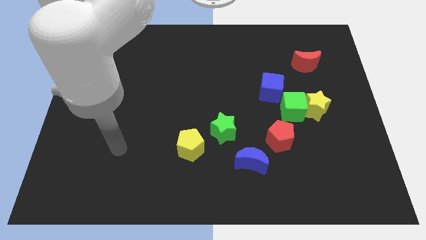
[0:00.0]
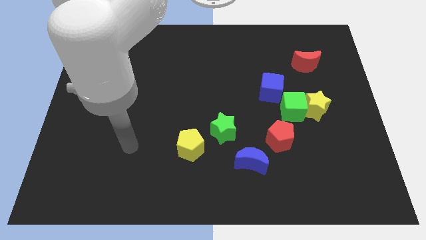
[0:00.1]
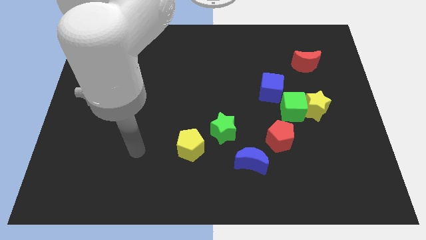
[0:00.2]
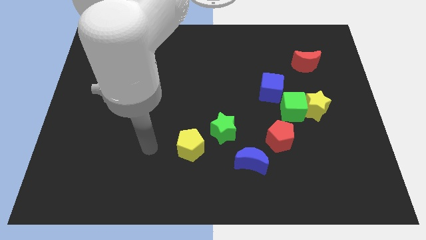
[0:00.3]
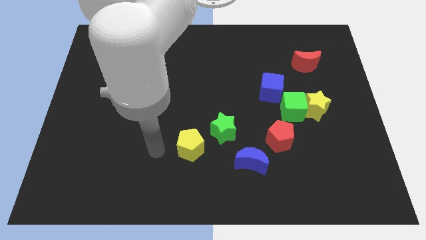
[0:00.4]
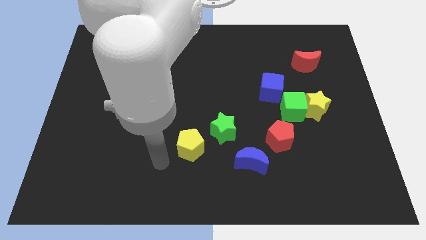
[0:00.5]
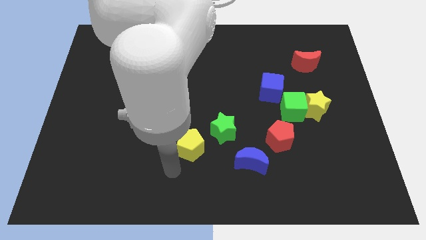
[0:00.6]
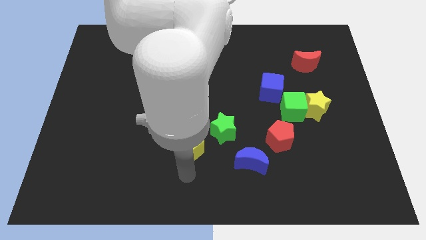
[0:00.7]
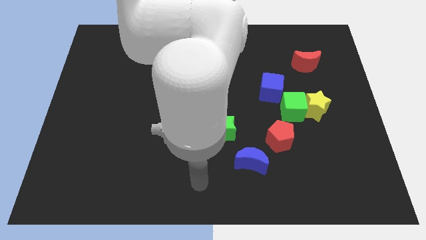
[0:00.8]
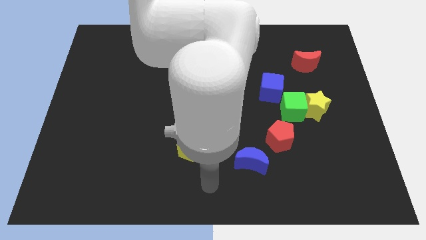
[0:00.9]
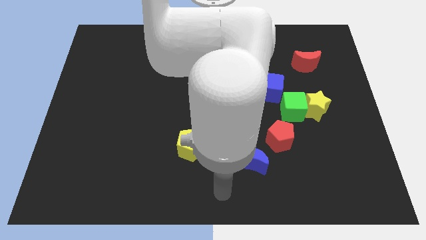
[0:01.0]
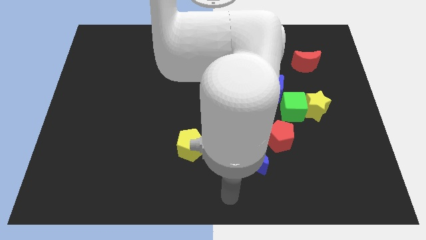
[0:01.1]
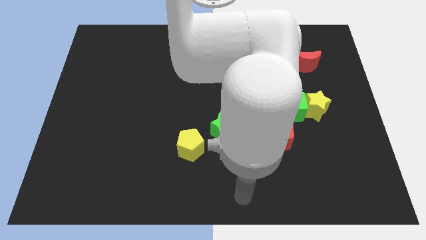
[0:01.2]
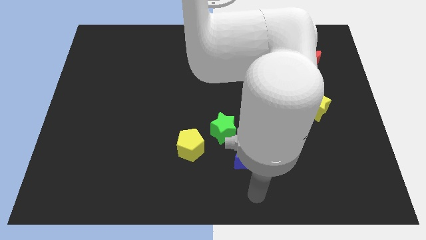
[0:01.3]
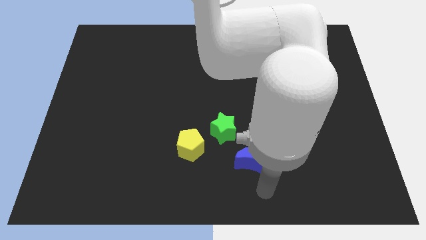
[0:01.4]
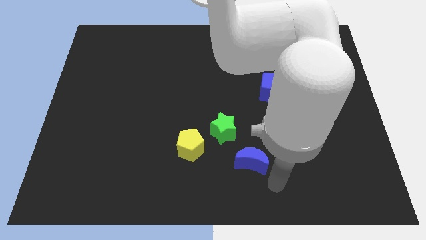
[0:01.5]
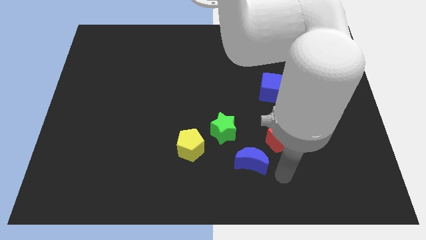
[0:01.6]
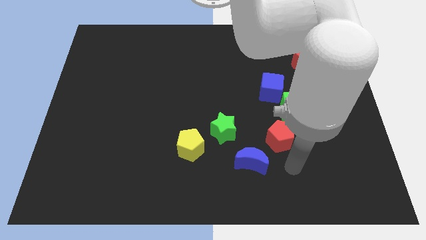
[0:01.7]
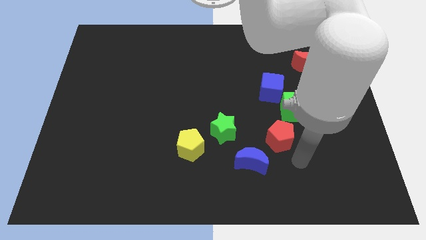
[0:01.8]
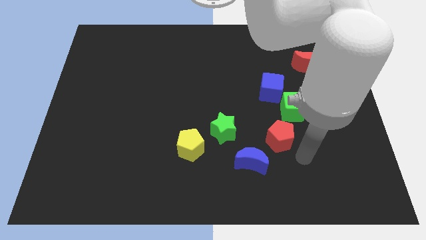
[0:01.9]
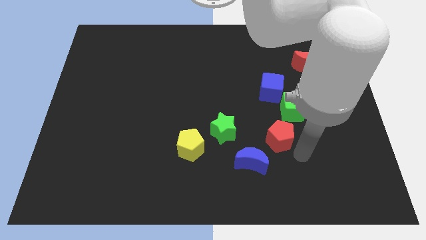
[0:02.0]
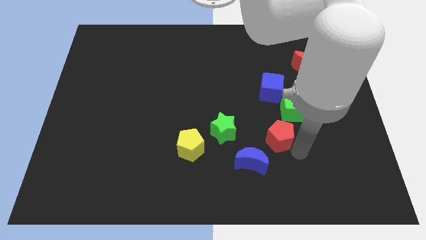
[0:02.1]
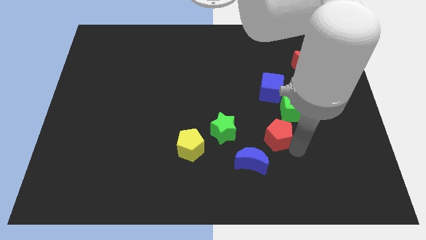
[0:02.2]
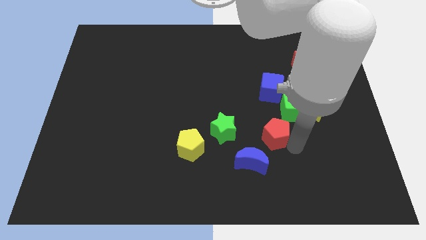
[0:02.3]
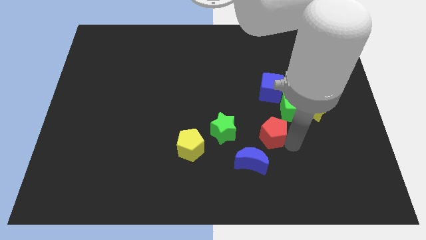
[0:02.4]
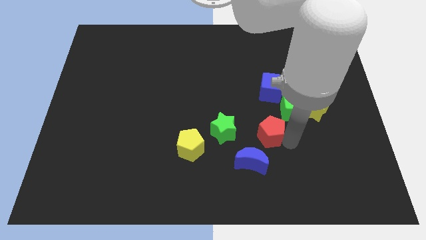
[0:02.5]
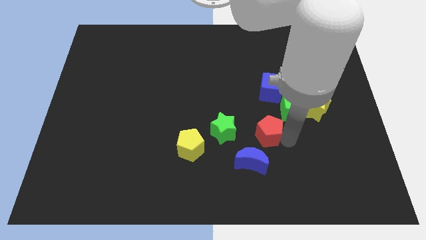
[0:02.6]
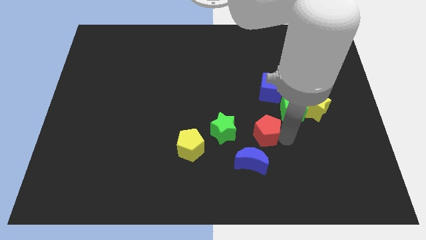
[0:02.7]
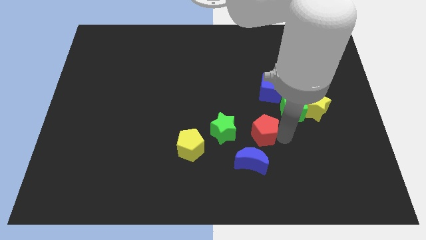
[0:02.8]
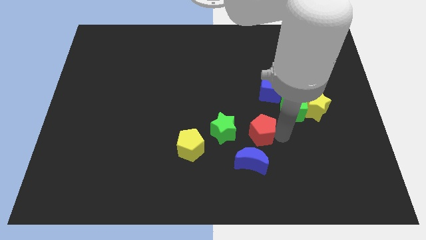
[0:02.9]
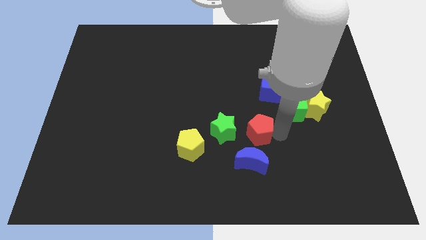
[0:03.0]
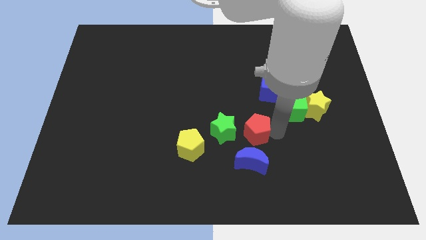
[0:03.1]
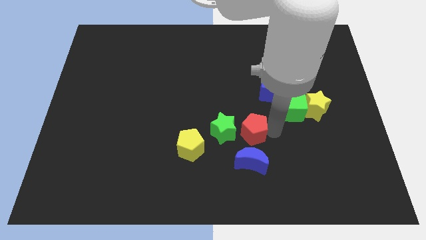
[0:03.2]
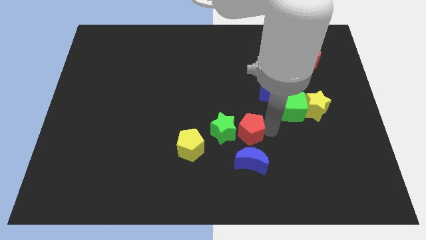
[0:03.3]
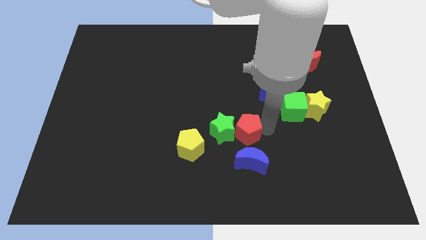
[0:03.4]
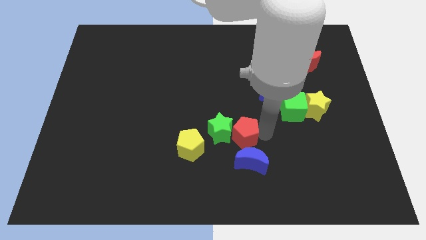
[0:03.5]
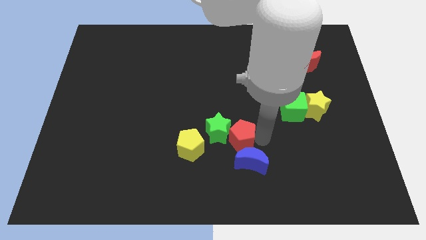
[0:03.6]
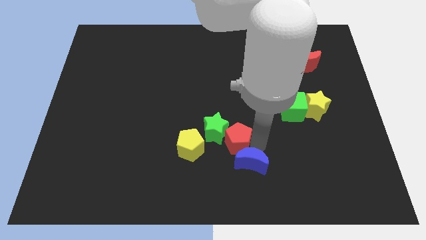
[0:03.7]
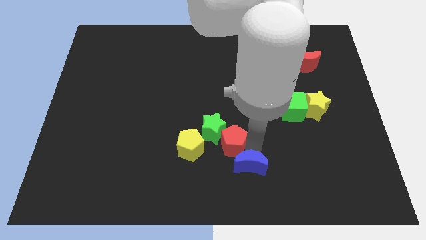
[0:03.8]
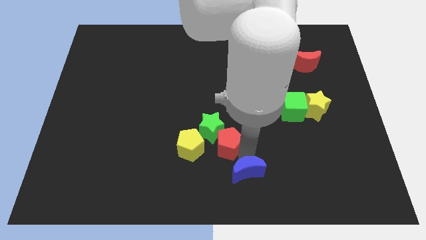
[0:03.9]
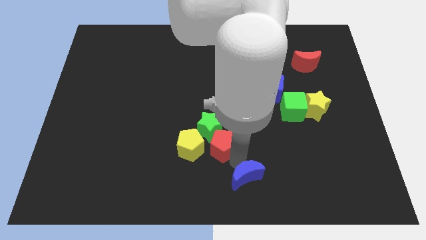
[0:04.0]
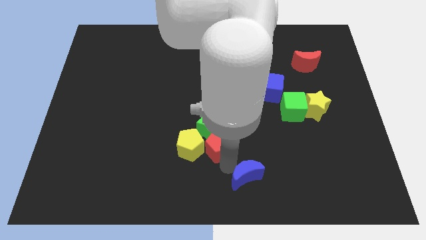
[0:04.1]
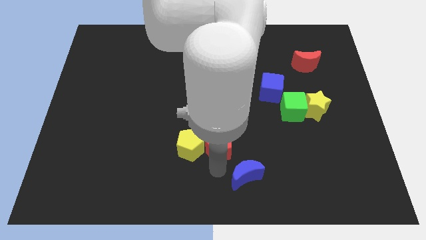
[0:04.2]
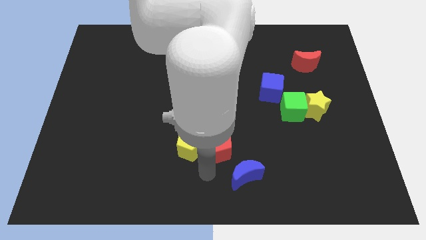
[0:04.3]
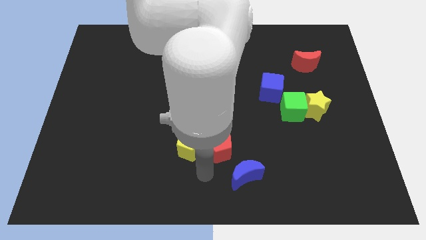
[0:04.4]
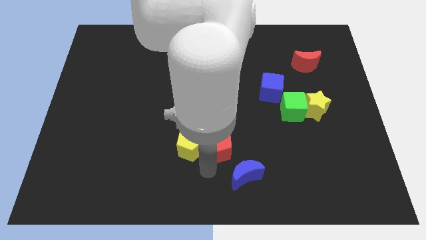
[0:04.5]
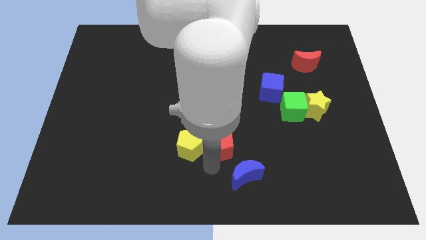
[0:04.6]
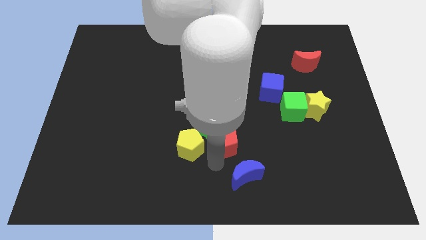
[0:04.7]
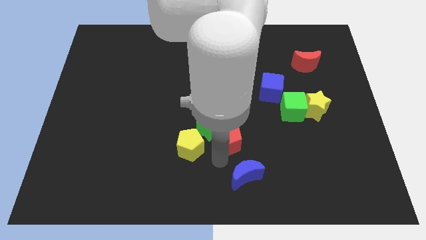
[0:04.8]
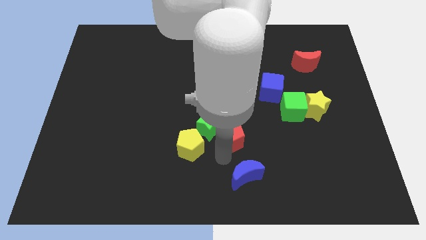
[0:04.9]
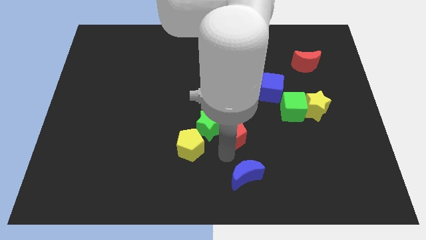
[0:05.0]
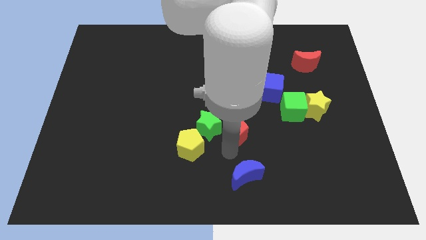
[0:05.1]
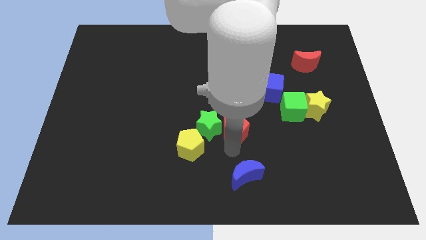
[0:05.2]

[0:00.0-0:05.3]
slightly push the red pentagon diagonally up and to the left

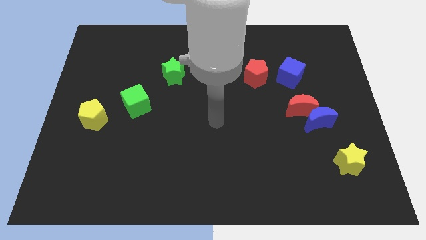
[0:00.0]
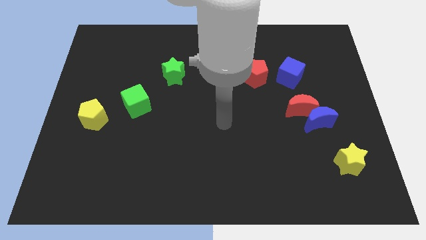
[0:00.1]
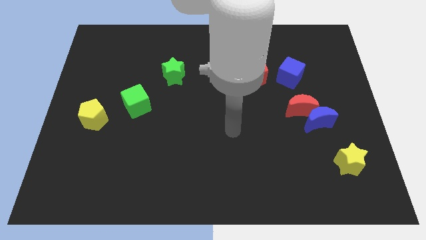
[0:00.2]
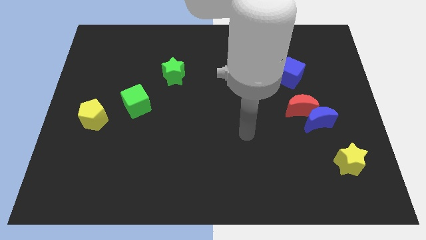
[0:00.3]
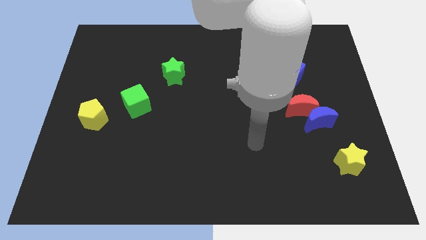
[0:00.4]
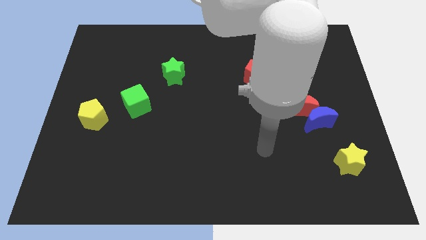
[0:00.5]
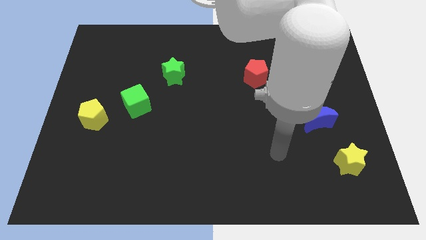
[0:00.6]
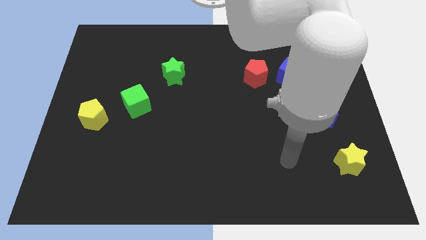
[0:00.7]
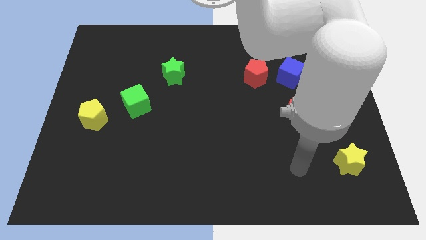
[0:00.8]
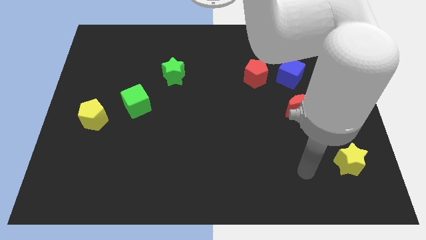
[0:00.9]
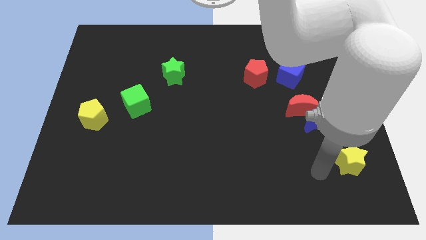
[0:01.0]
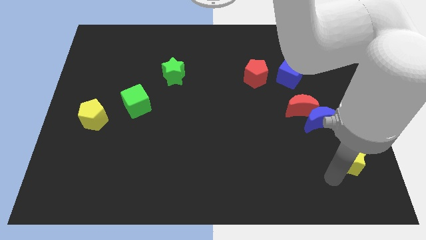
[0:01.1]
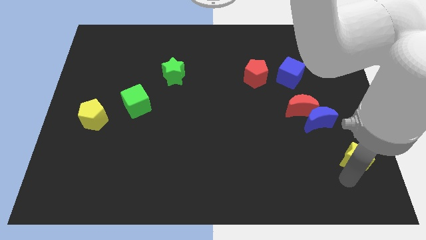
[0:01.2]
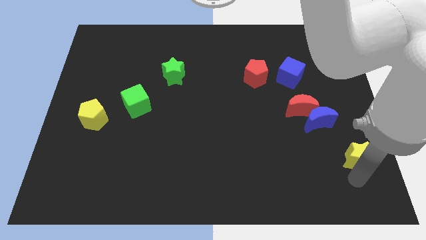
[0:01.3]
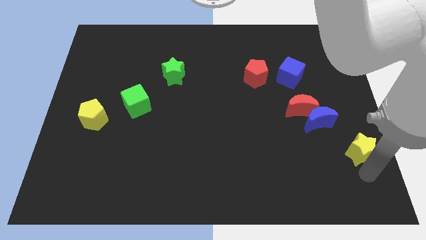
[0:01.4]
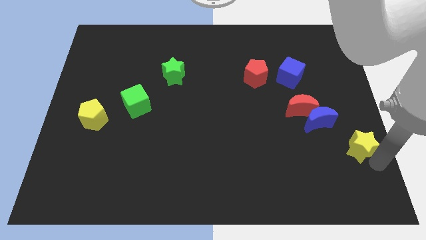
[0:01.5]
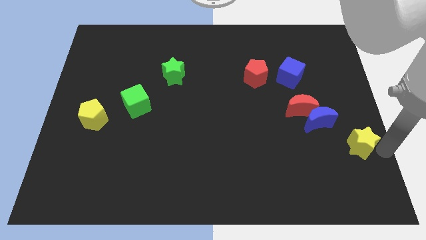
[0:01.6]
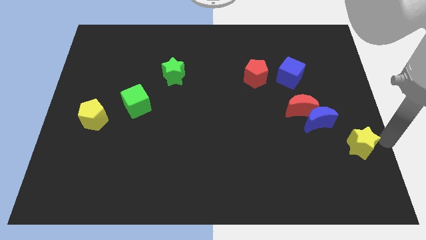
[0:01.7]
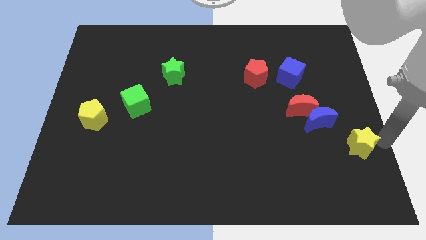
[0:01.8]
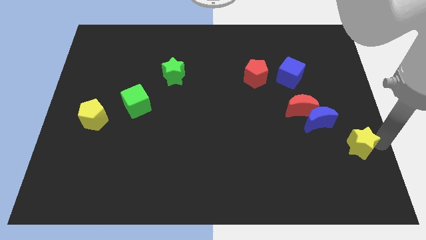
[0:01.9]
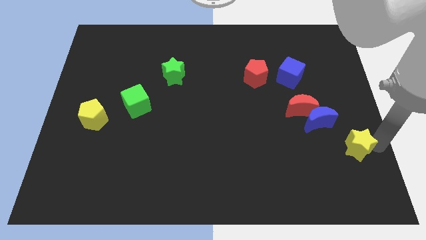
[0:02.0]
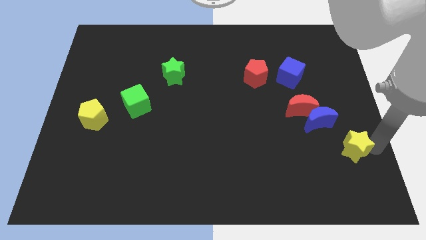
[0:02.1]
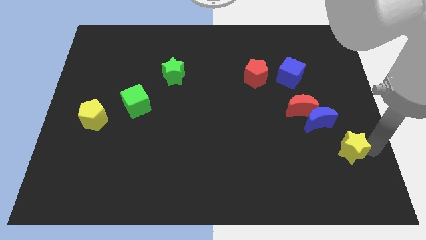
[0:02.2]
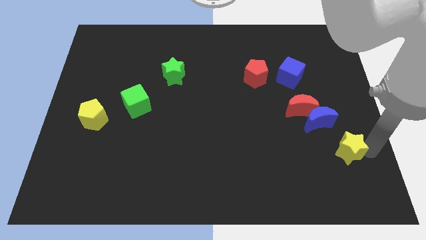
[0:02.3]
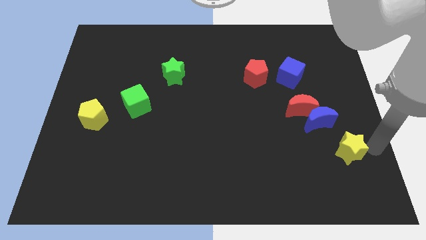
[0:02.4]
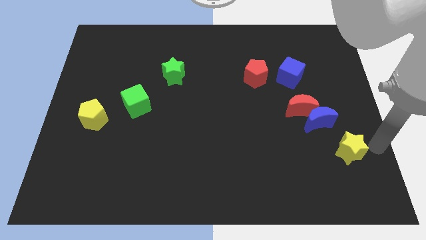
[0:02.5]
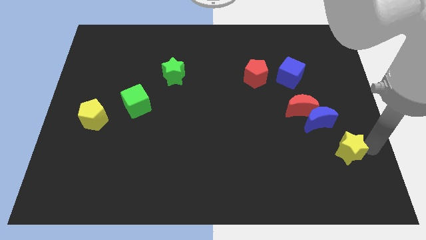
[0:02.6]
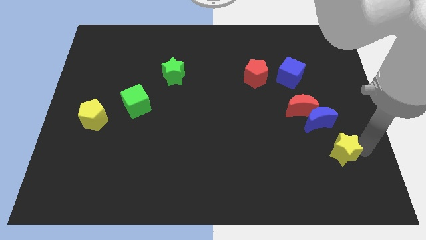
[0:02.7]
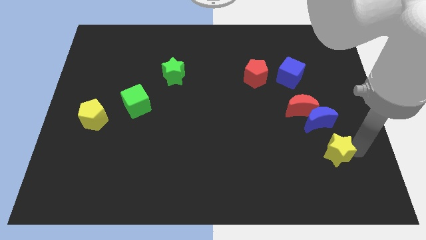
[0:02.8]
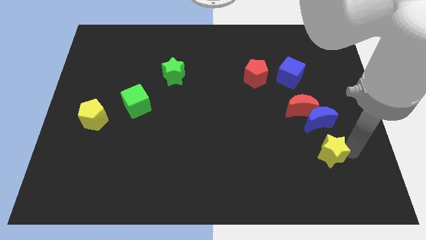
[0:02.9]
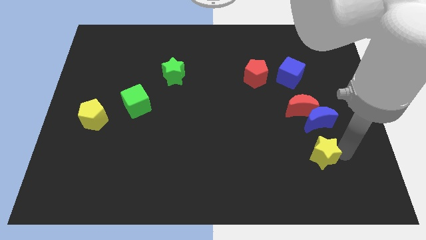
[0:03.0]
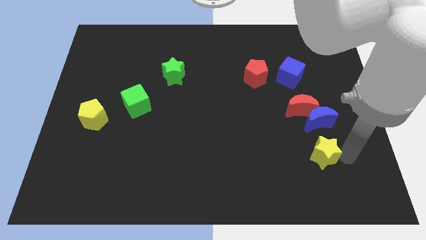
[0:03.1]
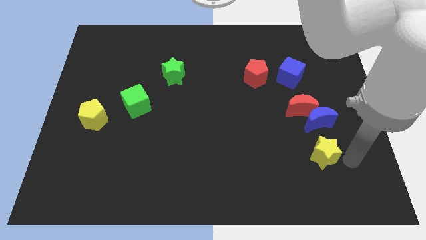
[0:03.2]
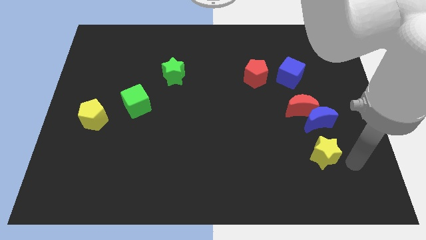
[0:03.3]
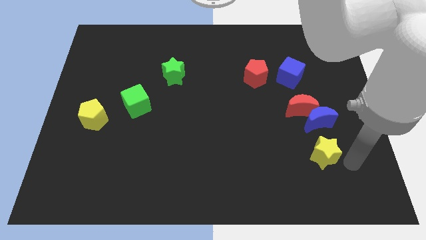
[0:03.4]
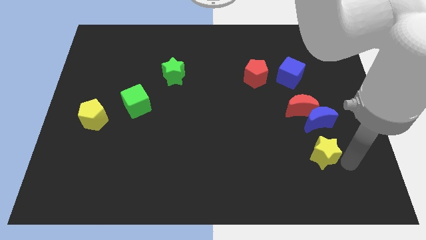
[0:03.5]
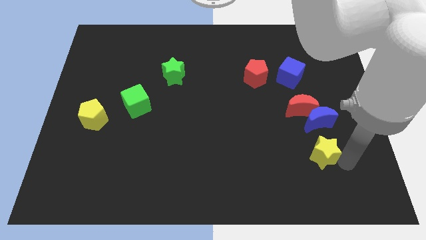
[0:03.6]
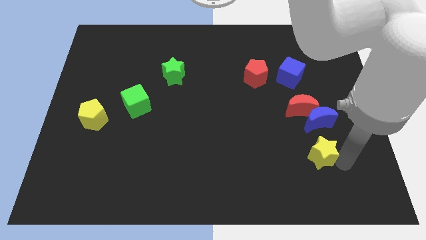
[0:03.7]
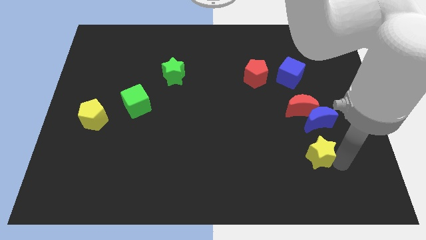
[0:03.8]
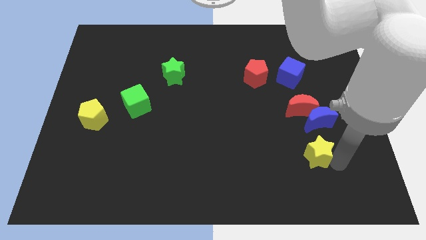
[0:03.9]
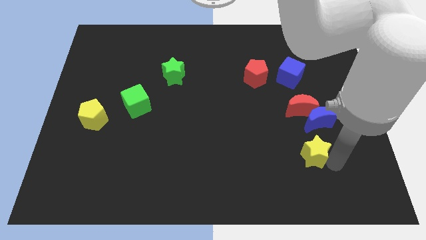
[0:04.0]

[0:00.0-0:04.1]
slightly push the yellow star to the left
